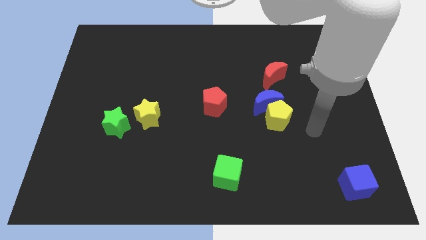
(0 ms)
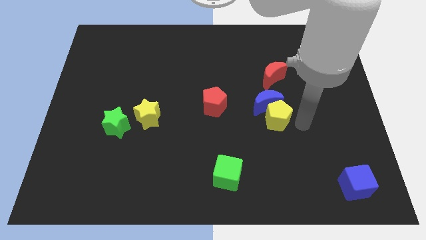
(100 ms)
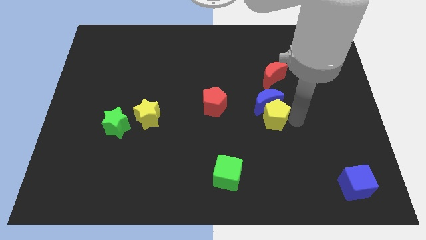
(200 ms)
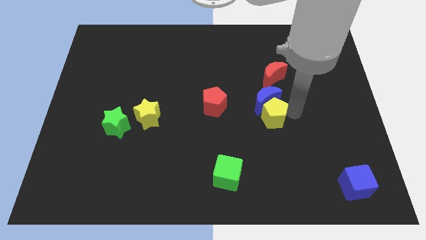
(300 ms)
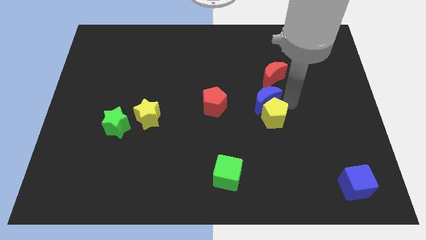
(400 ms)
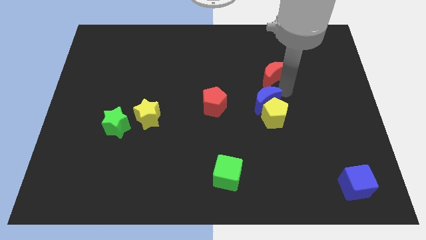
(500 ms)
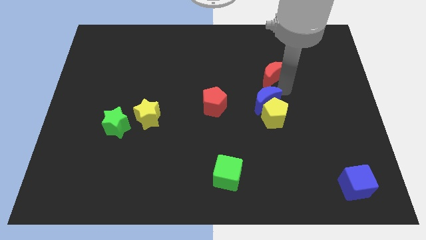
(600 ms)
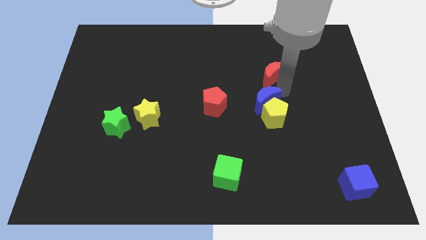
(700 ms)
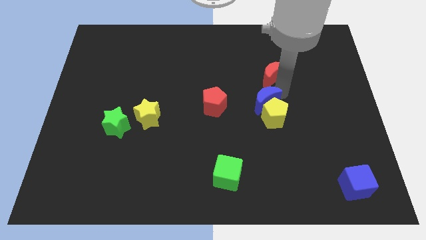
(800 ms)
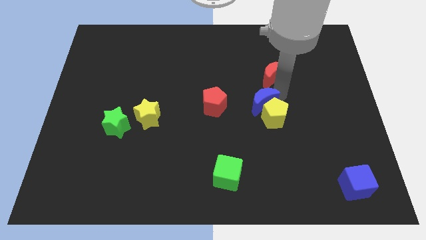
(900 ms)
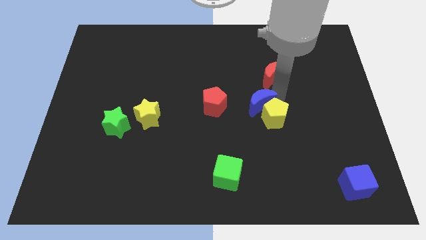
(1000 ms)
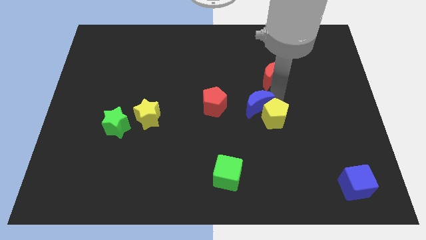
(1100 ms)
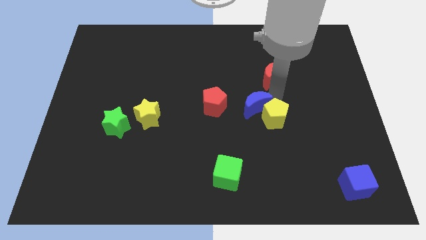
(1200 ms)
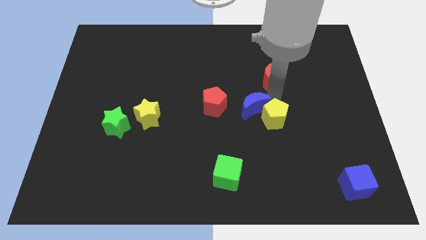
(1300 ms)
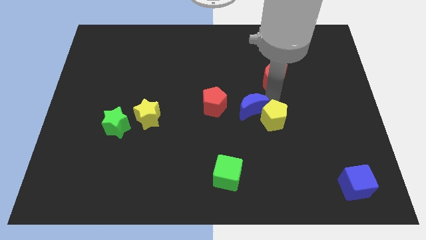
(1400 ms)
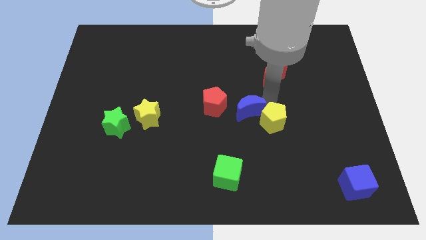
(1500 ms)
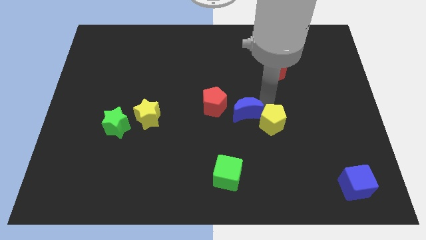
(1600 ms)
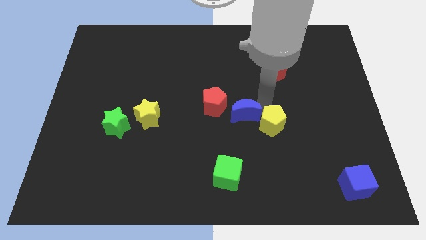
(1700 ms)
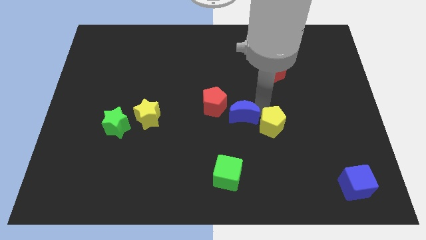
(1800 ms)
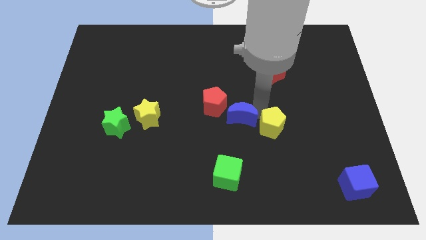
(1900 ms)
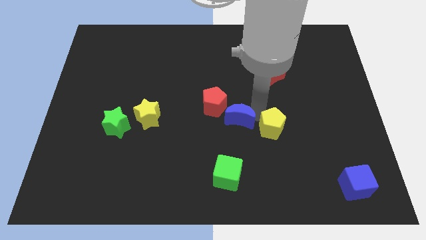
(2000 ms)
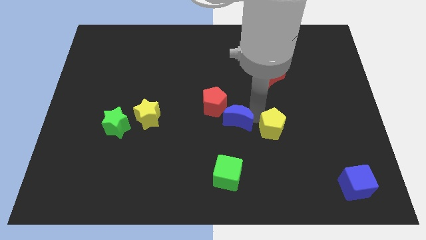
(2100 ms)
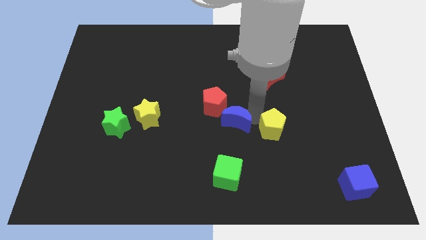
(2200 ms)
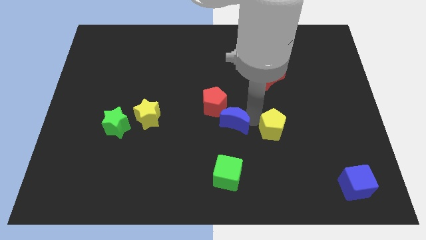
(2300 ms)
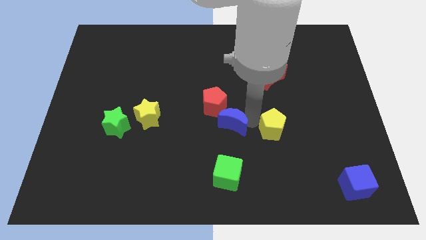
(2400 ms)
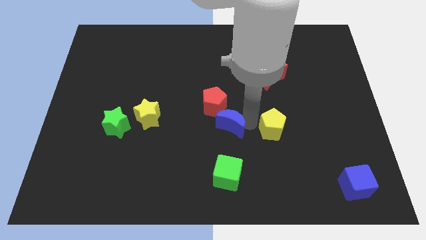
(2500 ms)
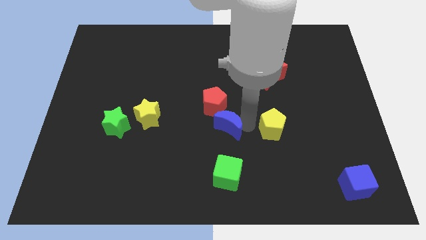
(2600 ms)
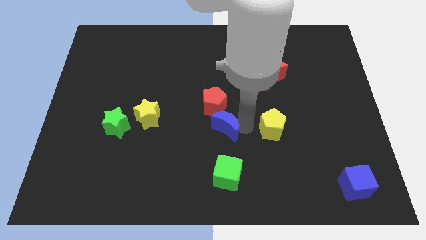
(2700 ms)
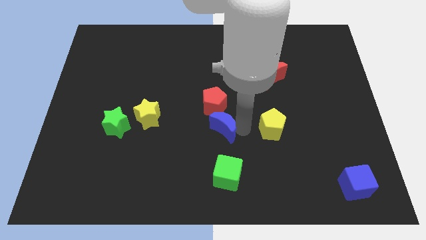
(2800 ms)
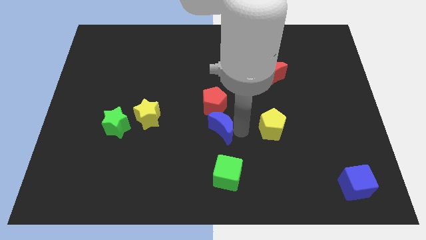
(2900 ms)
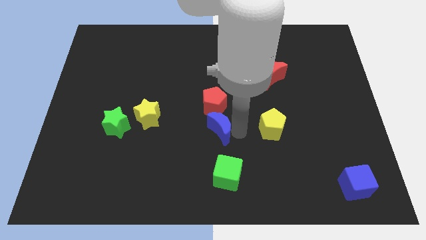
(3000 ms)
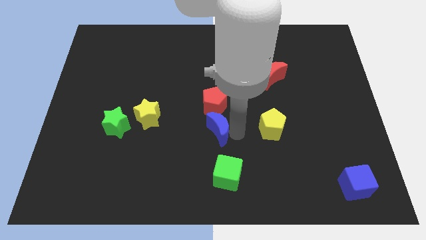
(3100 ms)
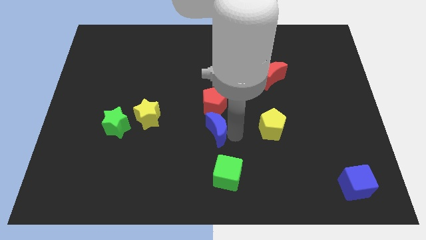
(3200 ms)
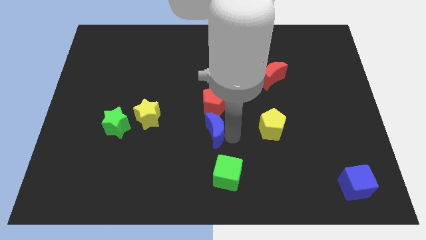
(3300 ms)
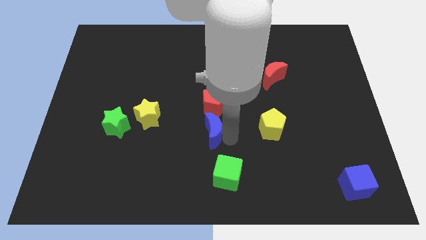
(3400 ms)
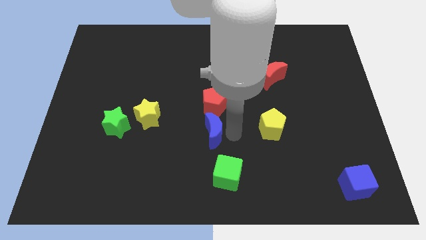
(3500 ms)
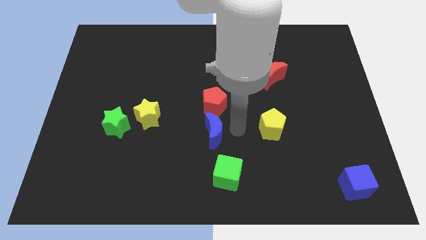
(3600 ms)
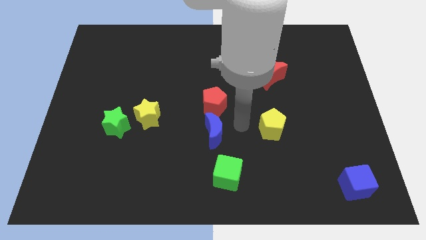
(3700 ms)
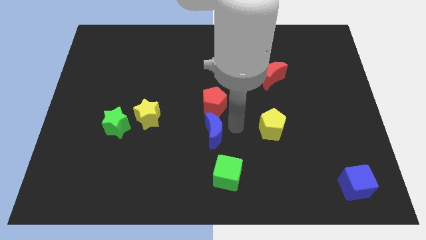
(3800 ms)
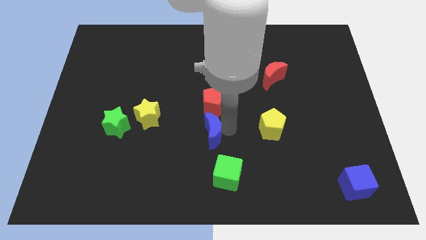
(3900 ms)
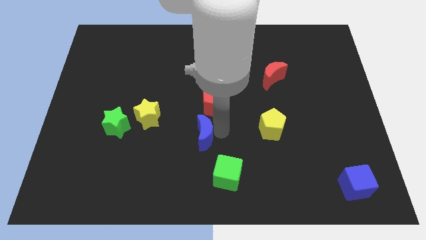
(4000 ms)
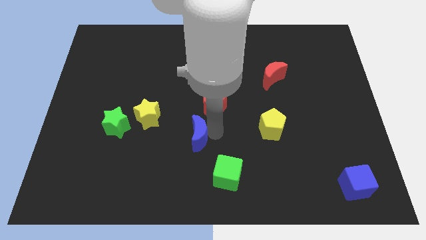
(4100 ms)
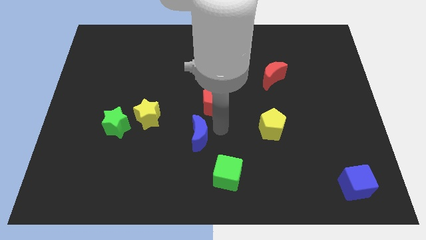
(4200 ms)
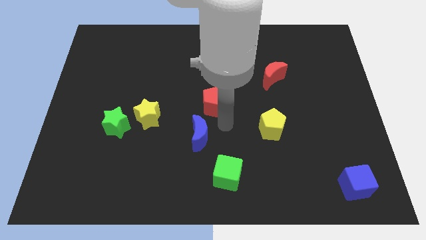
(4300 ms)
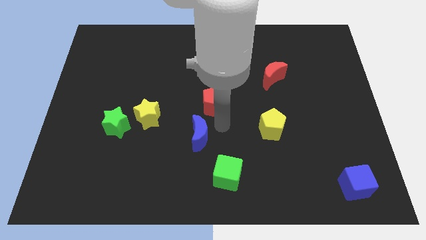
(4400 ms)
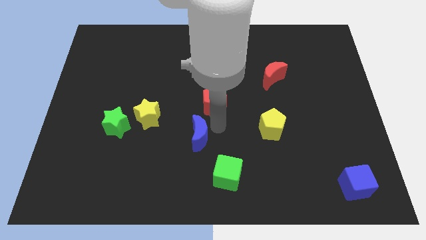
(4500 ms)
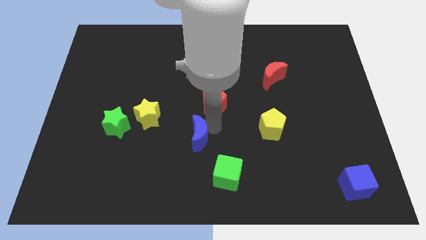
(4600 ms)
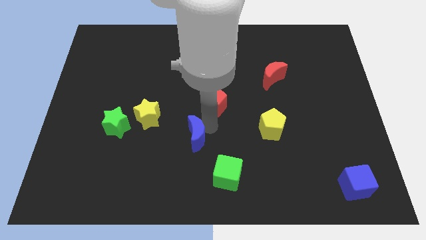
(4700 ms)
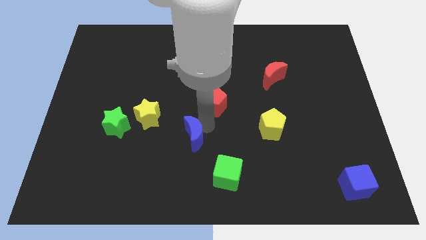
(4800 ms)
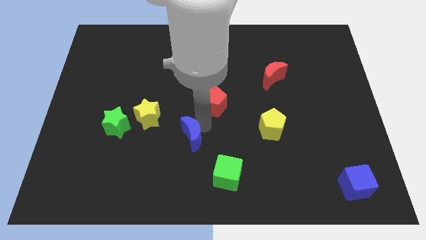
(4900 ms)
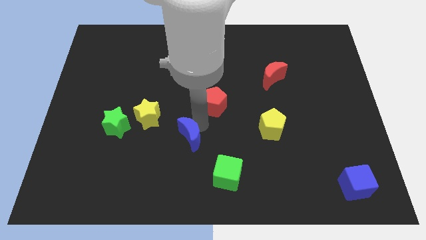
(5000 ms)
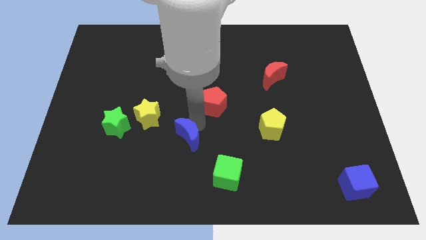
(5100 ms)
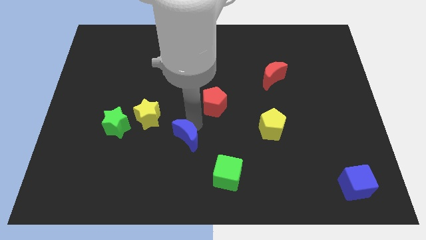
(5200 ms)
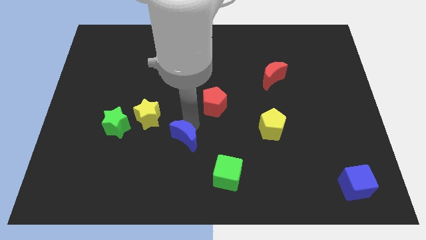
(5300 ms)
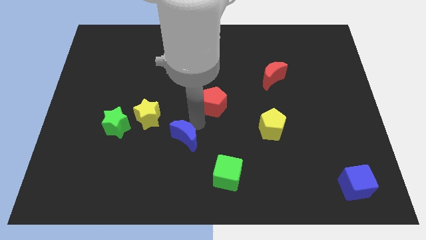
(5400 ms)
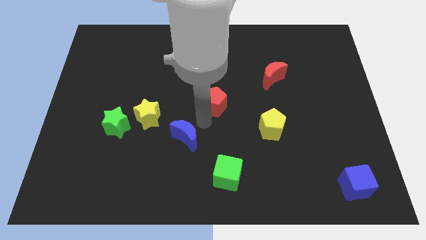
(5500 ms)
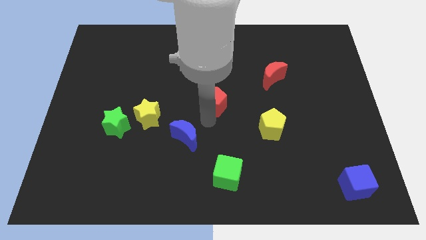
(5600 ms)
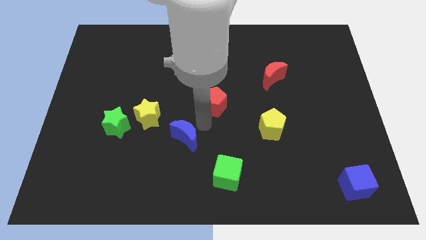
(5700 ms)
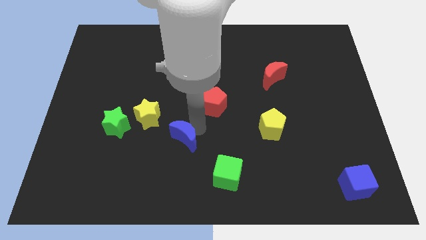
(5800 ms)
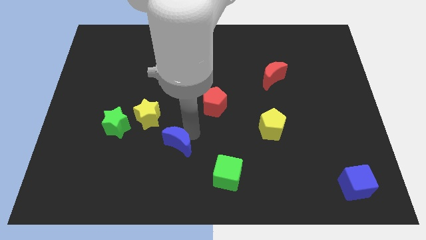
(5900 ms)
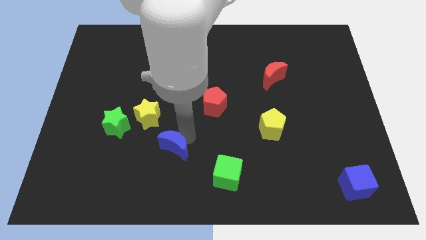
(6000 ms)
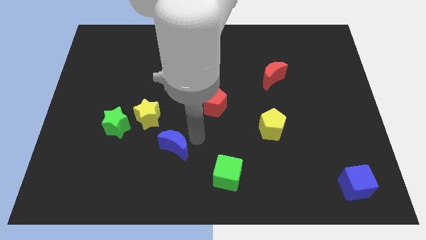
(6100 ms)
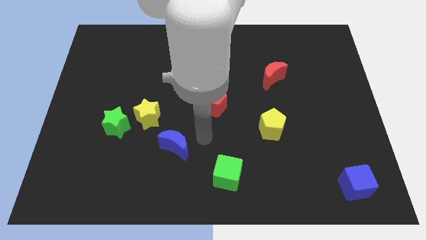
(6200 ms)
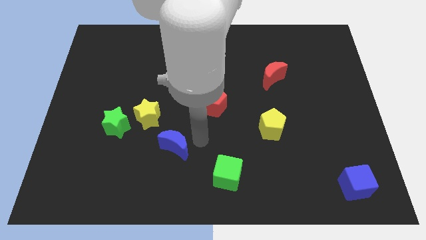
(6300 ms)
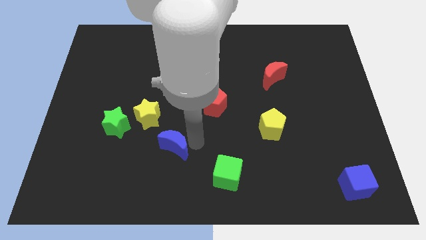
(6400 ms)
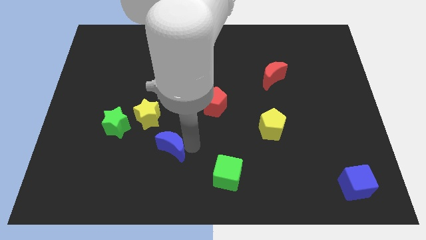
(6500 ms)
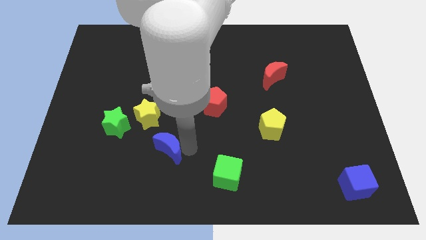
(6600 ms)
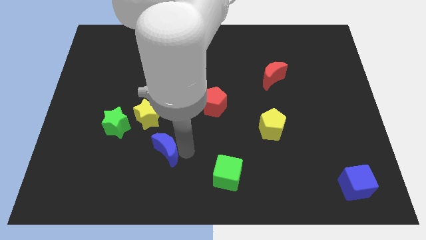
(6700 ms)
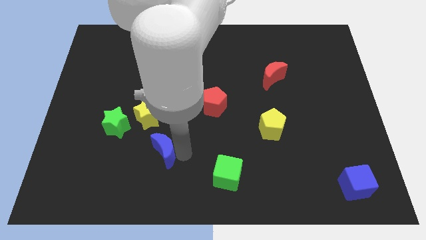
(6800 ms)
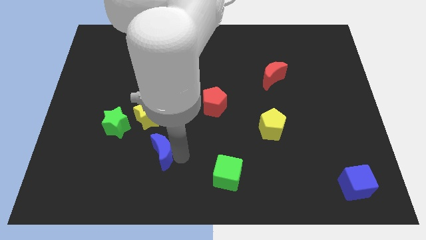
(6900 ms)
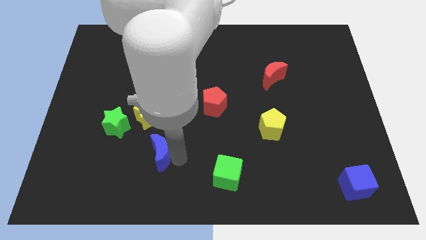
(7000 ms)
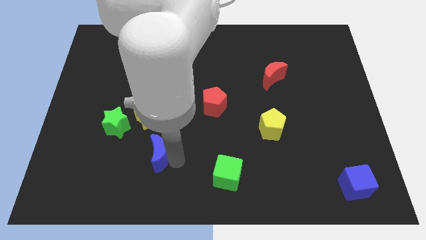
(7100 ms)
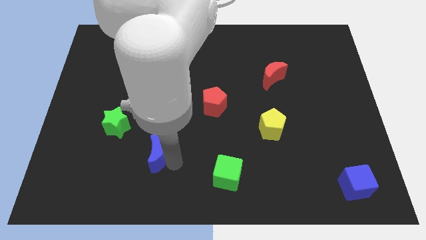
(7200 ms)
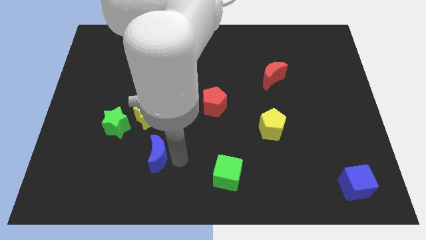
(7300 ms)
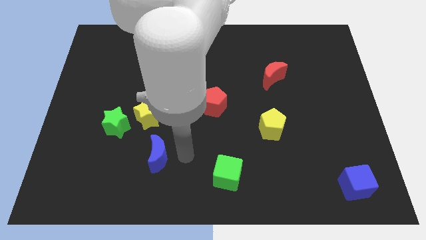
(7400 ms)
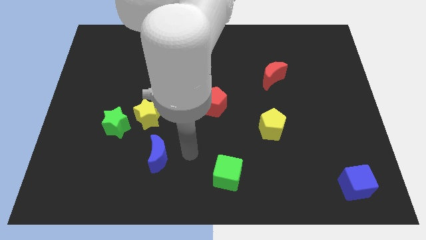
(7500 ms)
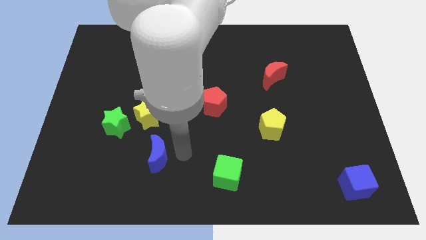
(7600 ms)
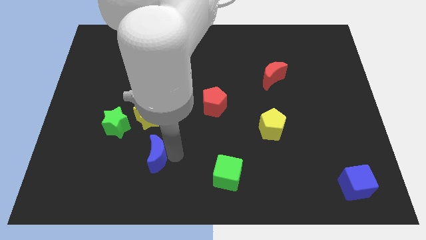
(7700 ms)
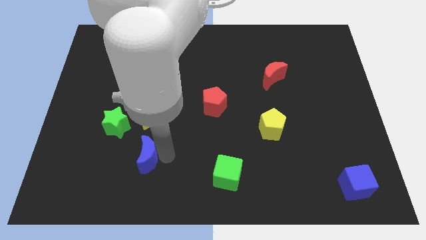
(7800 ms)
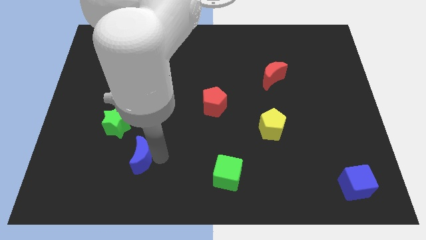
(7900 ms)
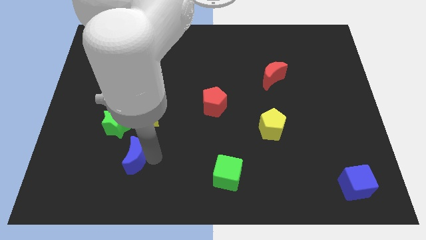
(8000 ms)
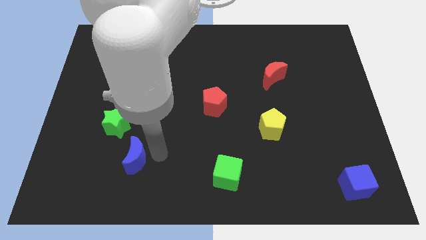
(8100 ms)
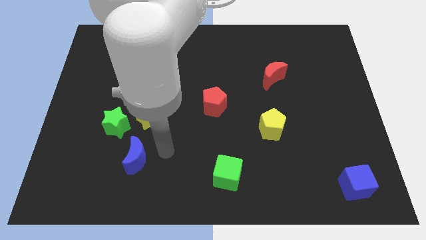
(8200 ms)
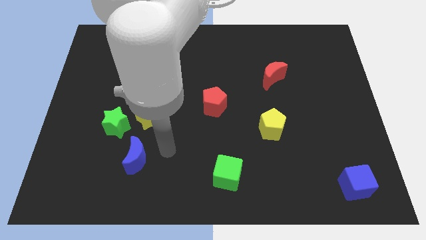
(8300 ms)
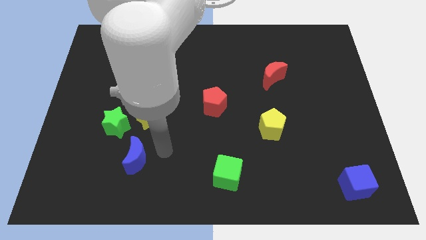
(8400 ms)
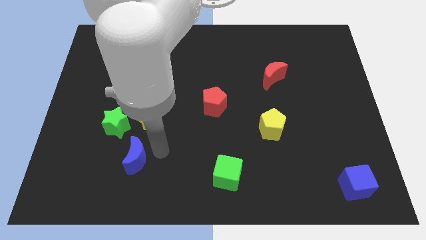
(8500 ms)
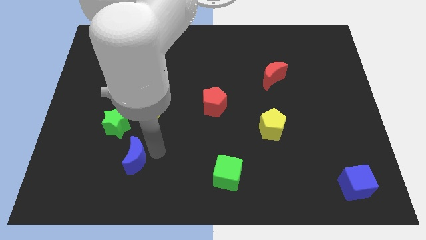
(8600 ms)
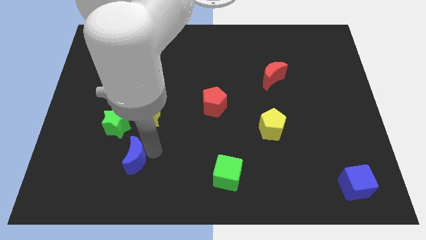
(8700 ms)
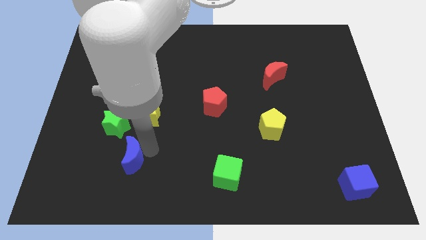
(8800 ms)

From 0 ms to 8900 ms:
push the blue moon below the green star
